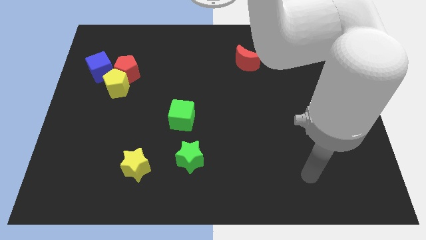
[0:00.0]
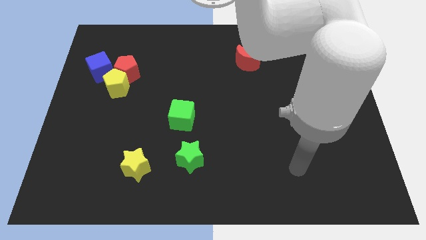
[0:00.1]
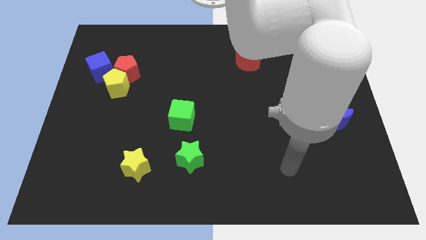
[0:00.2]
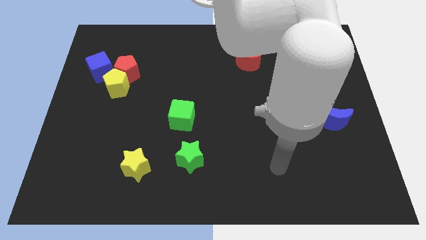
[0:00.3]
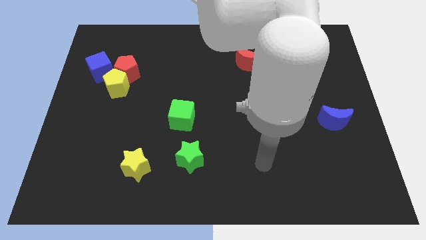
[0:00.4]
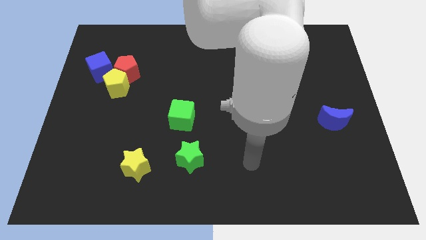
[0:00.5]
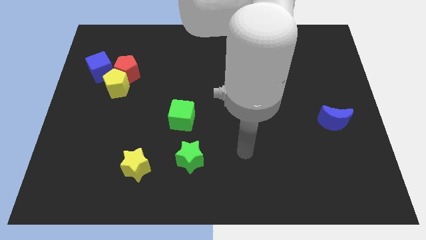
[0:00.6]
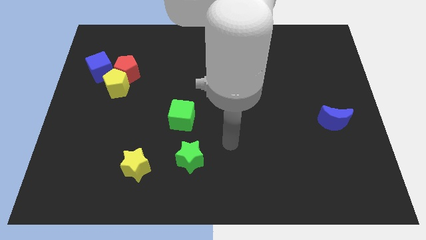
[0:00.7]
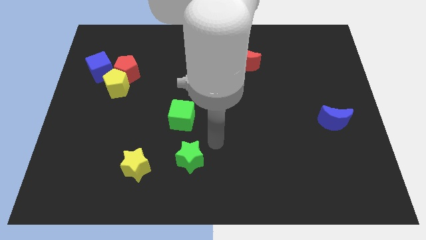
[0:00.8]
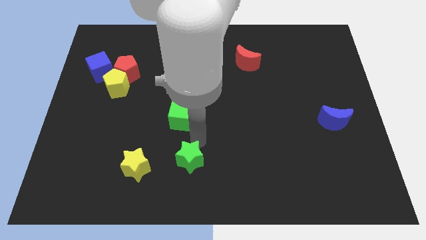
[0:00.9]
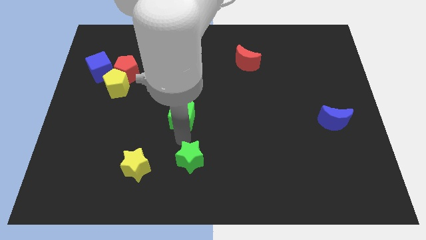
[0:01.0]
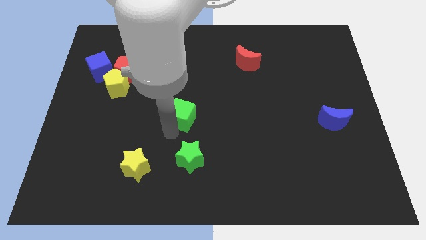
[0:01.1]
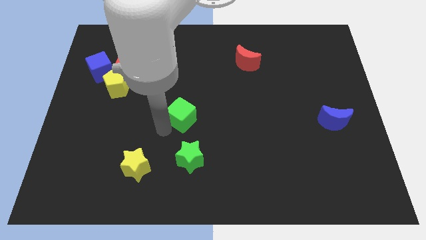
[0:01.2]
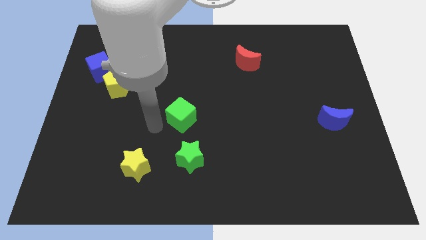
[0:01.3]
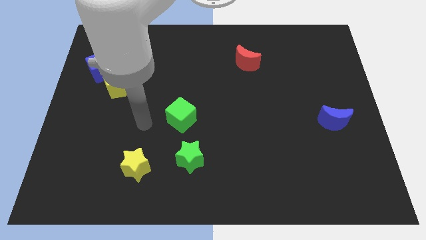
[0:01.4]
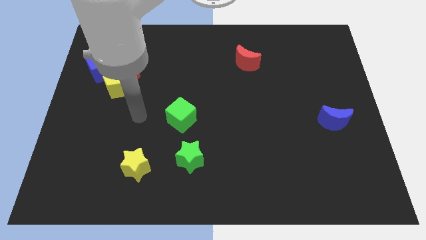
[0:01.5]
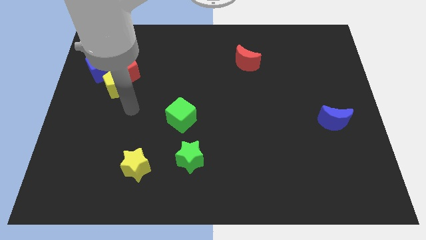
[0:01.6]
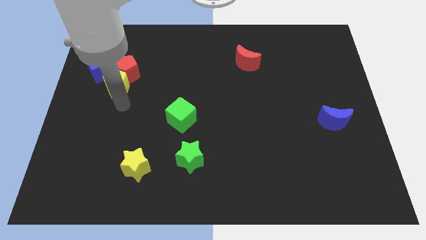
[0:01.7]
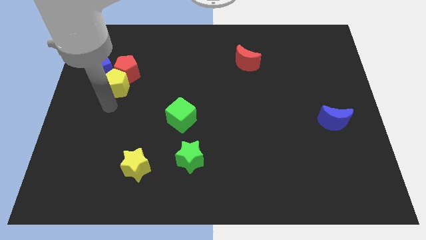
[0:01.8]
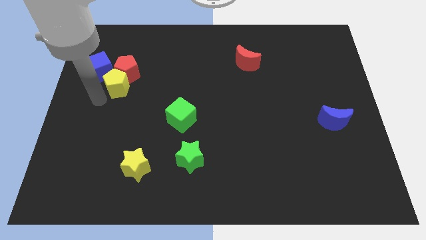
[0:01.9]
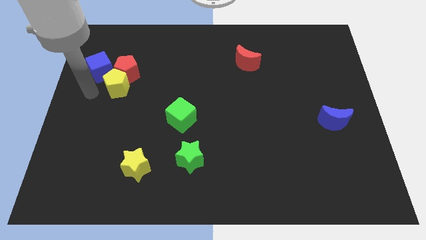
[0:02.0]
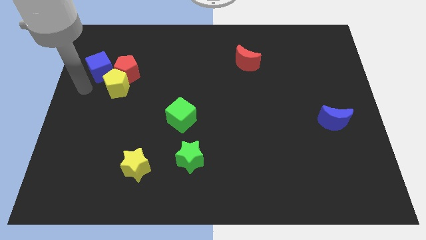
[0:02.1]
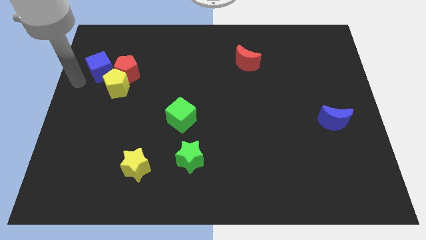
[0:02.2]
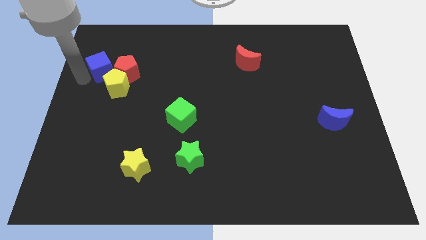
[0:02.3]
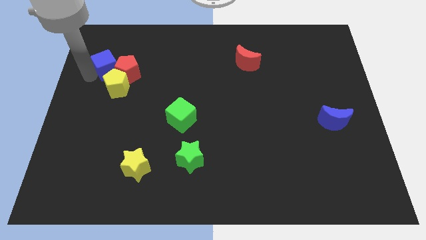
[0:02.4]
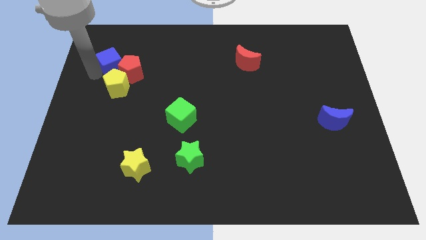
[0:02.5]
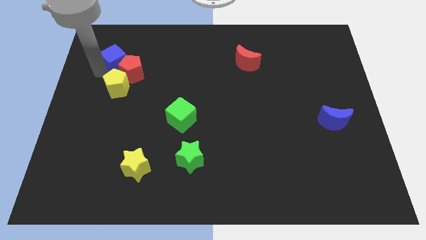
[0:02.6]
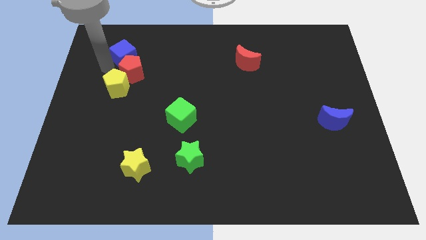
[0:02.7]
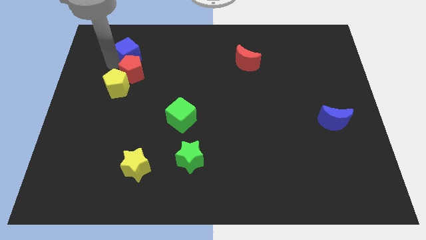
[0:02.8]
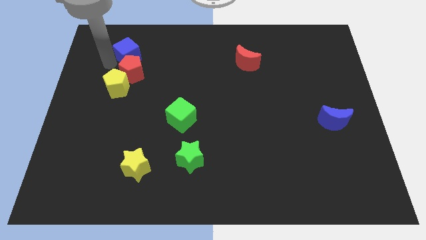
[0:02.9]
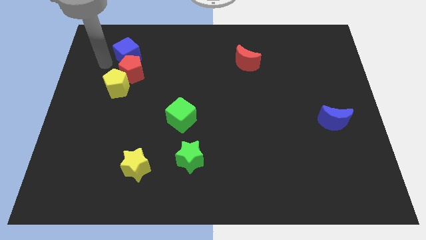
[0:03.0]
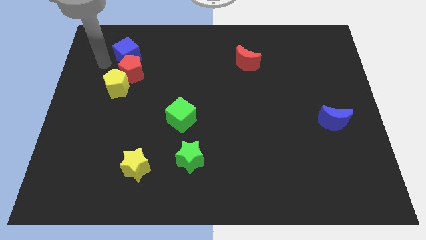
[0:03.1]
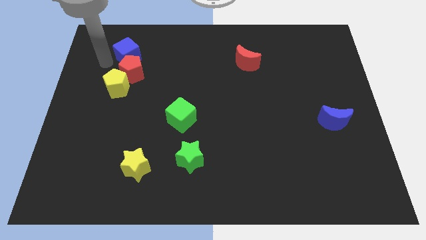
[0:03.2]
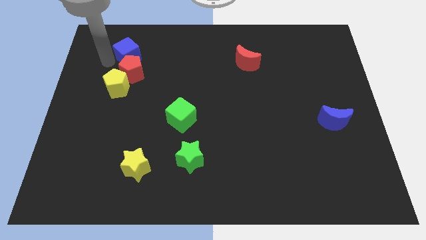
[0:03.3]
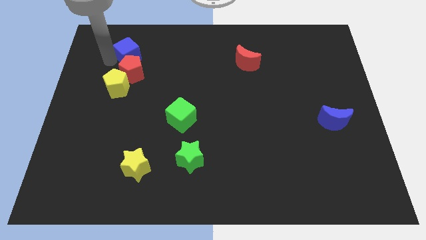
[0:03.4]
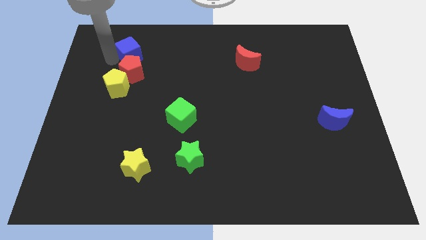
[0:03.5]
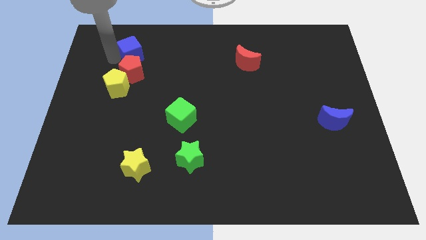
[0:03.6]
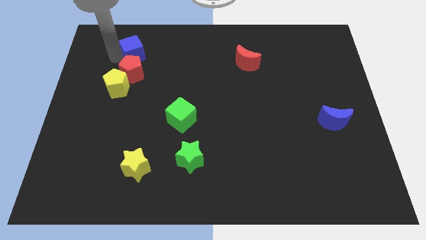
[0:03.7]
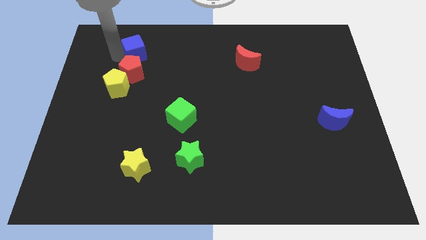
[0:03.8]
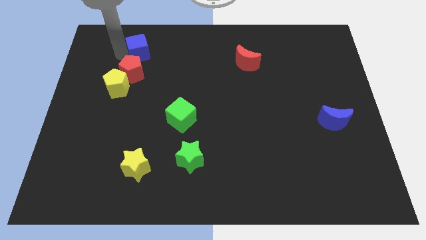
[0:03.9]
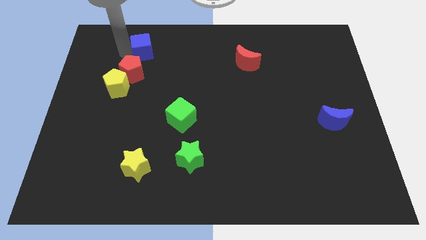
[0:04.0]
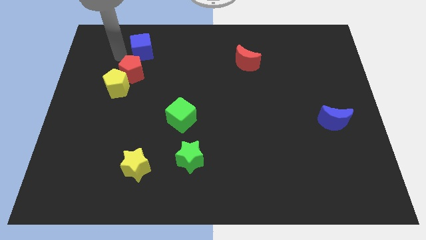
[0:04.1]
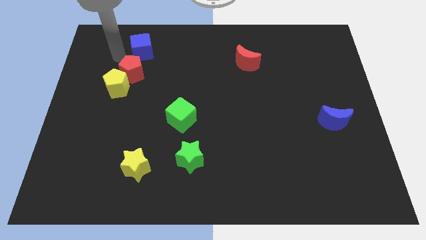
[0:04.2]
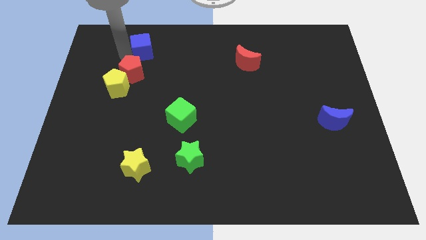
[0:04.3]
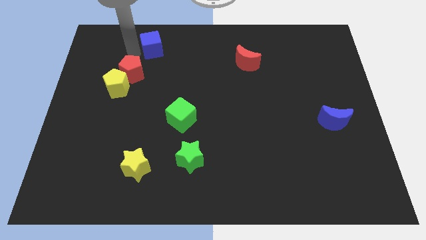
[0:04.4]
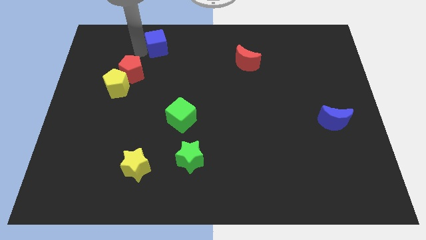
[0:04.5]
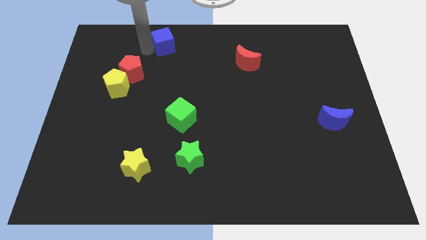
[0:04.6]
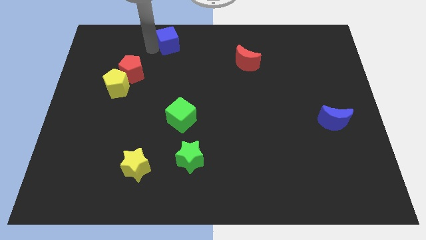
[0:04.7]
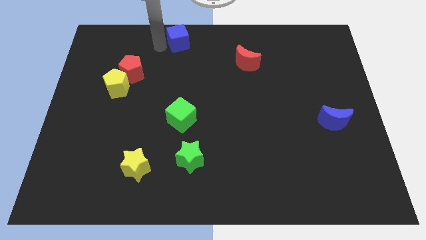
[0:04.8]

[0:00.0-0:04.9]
put the blue cube to the top

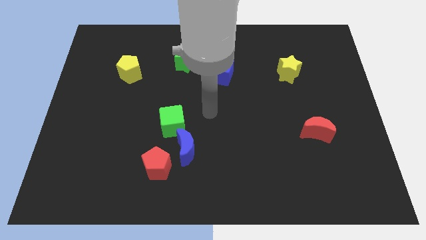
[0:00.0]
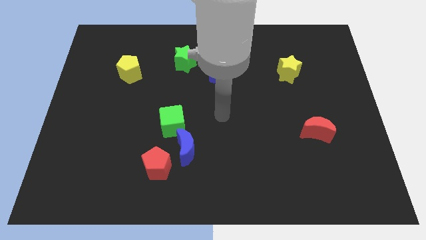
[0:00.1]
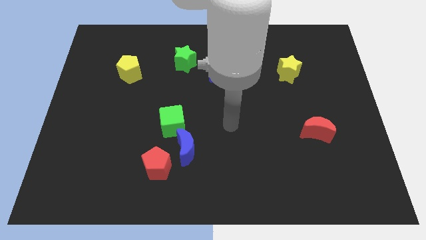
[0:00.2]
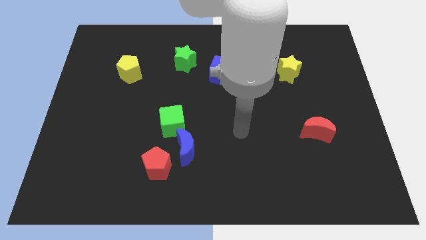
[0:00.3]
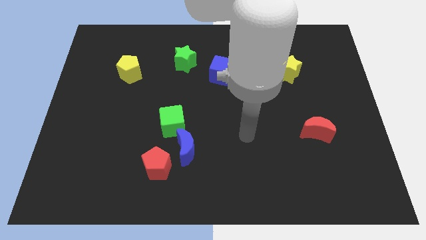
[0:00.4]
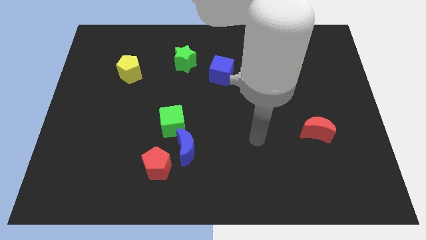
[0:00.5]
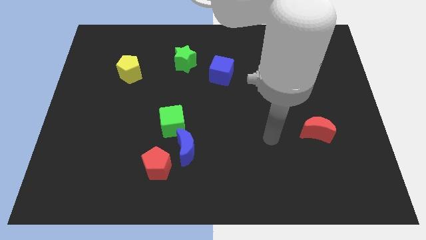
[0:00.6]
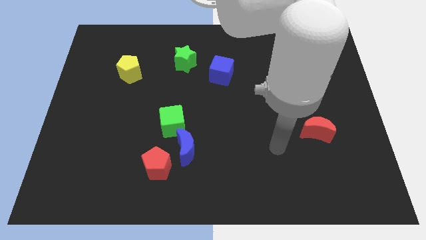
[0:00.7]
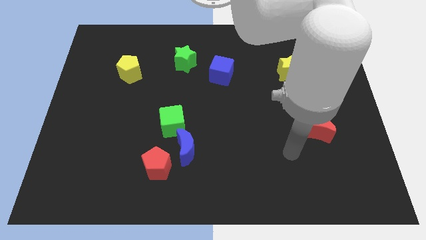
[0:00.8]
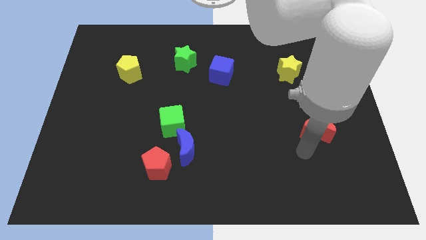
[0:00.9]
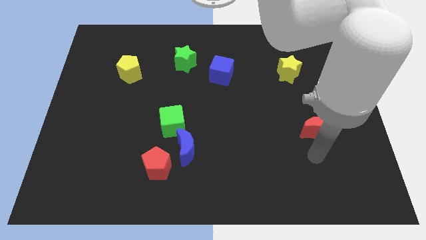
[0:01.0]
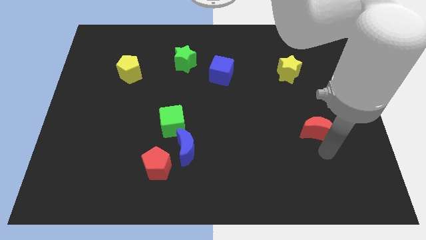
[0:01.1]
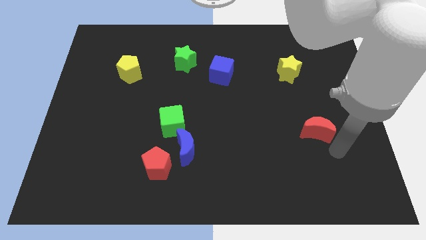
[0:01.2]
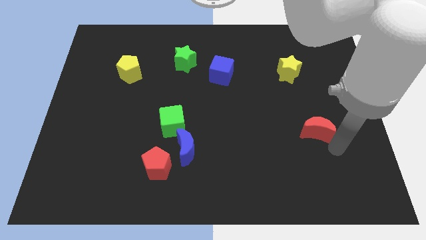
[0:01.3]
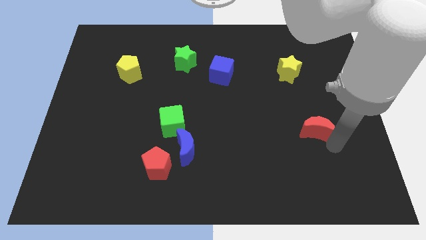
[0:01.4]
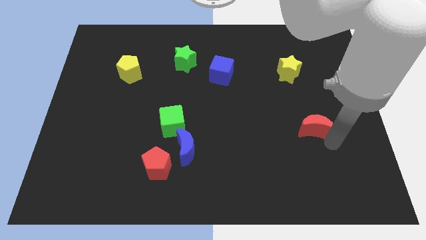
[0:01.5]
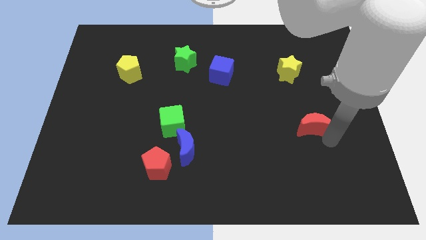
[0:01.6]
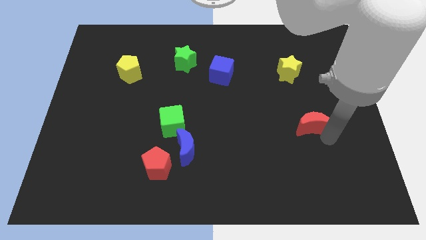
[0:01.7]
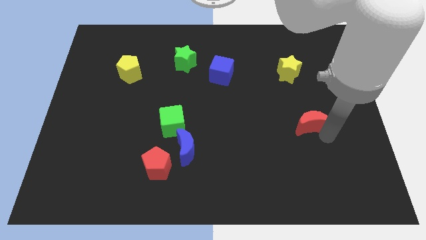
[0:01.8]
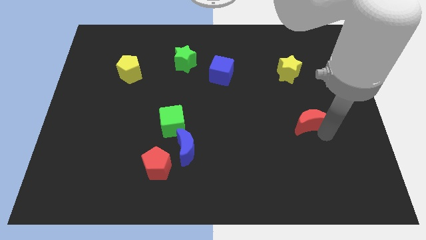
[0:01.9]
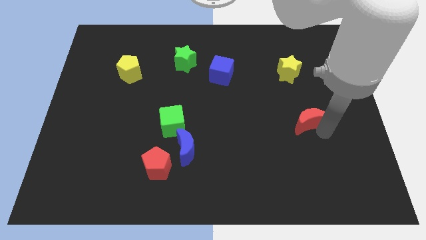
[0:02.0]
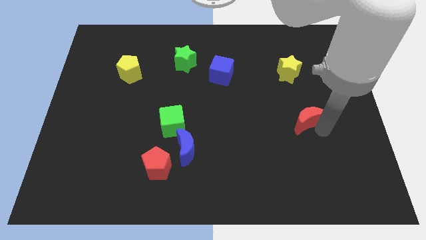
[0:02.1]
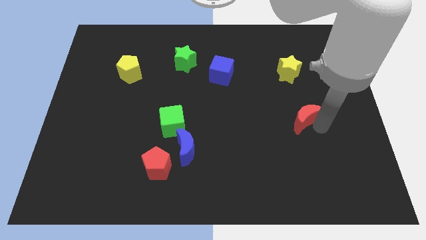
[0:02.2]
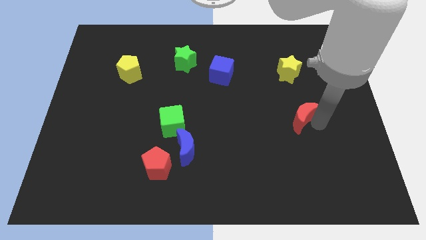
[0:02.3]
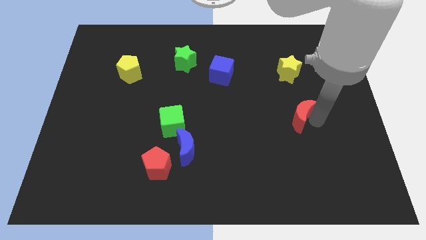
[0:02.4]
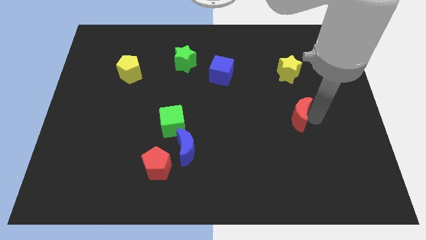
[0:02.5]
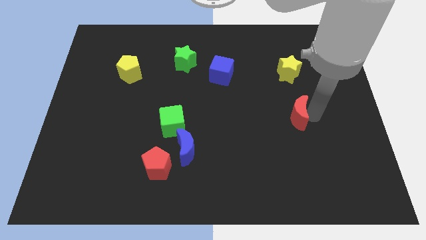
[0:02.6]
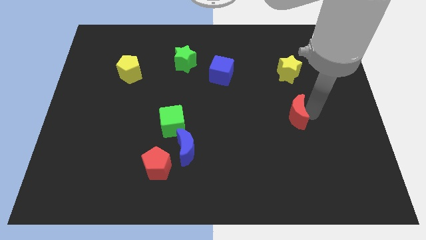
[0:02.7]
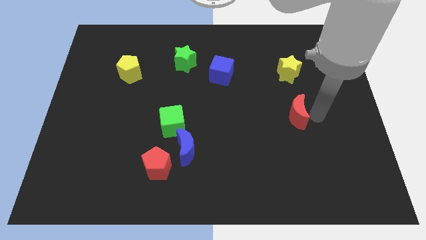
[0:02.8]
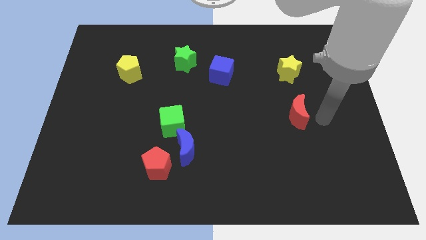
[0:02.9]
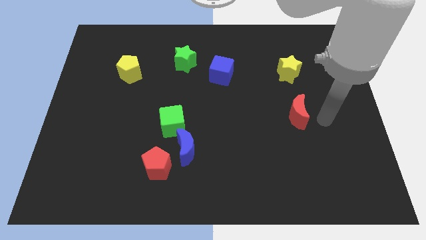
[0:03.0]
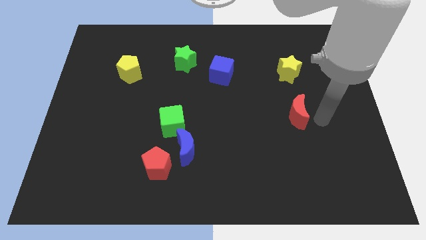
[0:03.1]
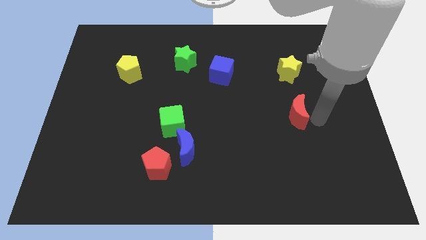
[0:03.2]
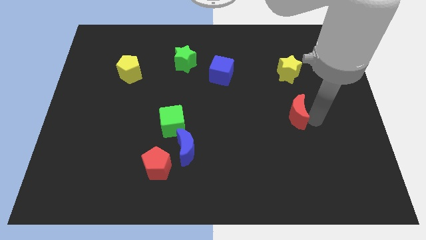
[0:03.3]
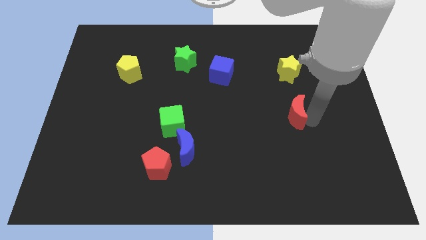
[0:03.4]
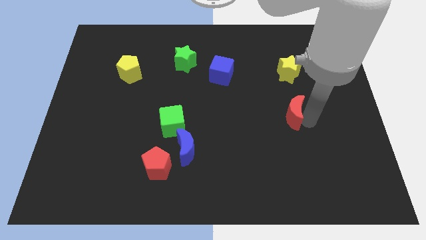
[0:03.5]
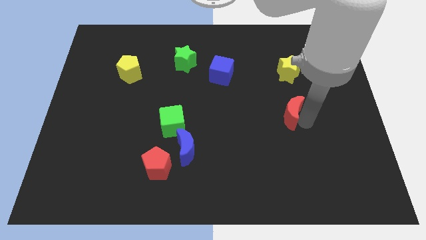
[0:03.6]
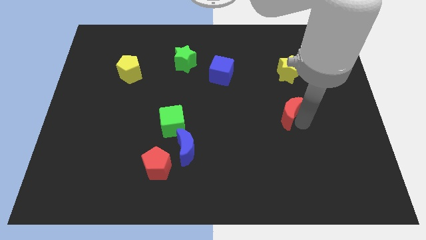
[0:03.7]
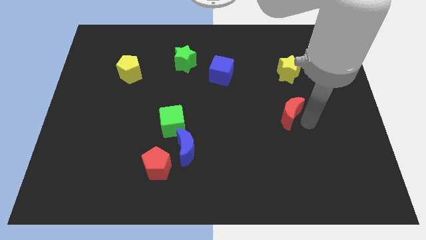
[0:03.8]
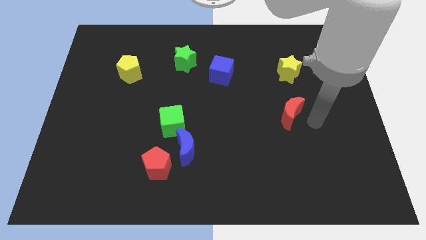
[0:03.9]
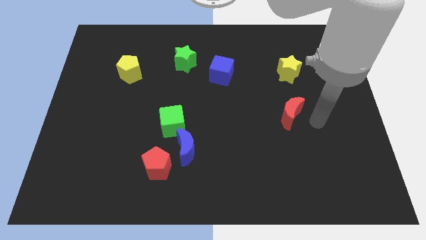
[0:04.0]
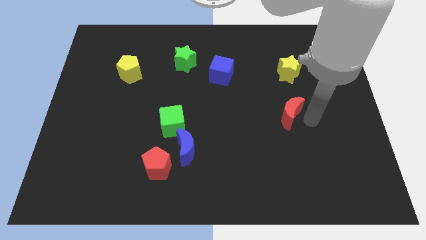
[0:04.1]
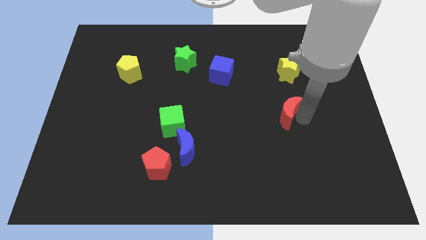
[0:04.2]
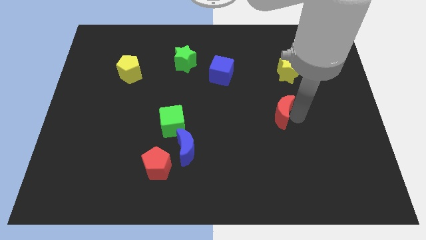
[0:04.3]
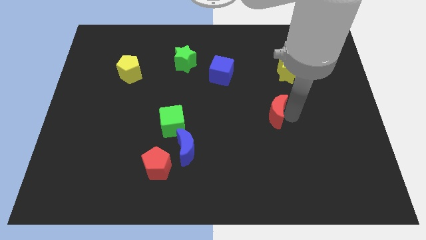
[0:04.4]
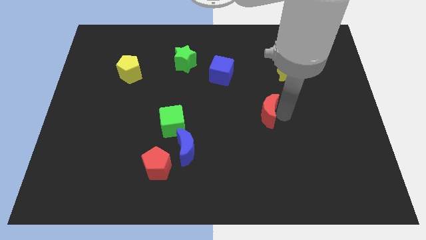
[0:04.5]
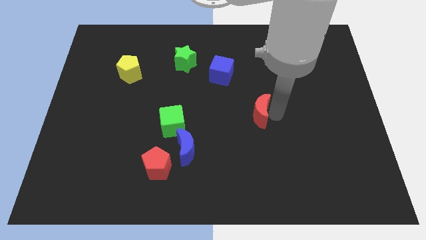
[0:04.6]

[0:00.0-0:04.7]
move the red moon to the center
